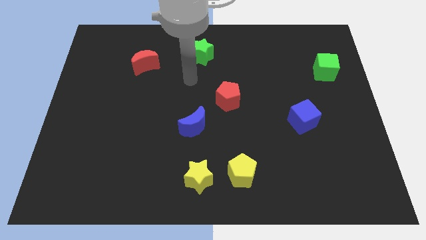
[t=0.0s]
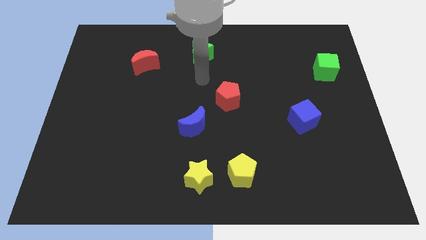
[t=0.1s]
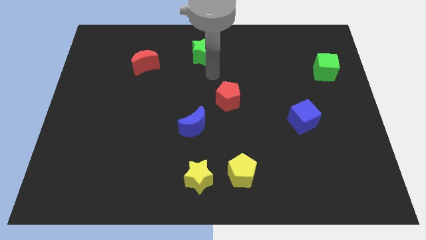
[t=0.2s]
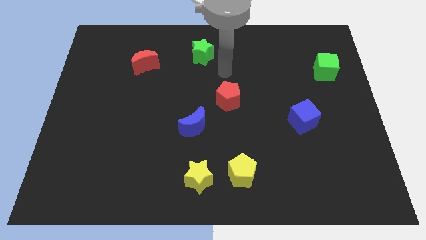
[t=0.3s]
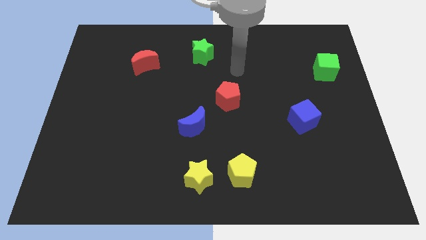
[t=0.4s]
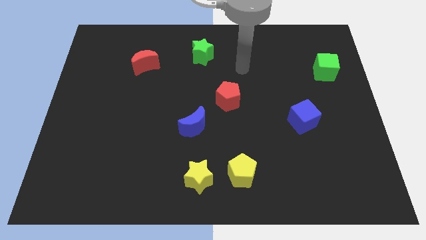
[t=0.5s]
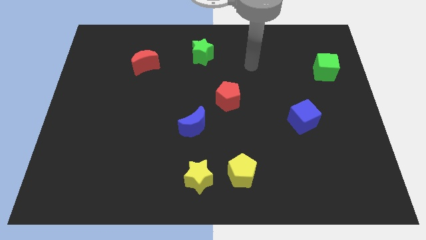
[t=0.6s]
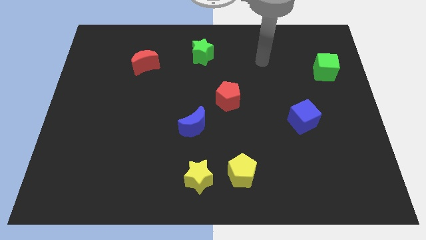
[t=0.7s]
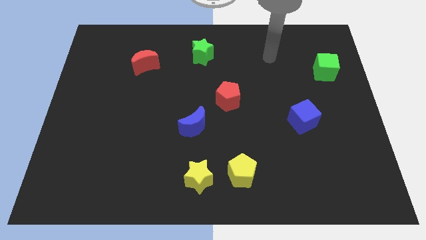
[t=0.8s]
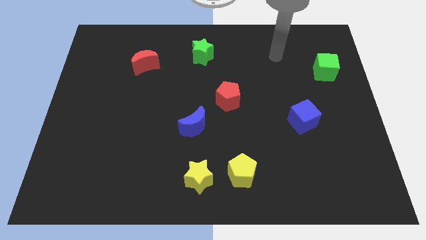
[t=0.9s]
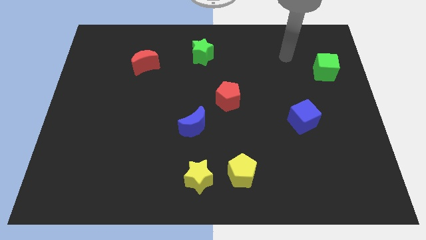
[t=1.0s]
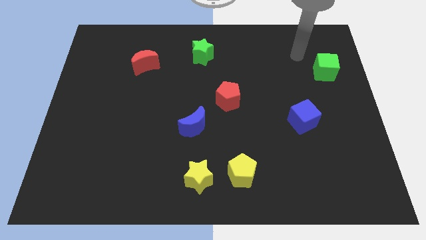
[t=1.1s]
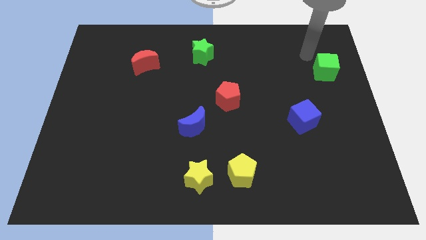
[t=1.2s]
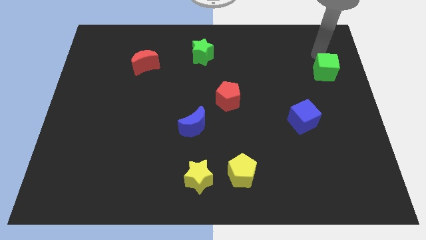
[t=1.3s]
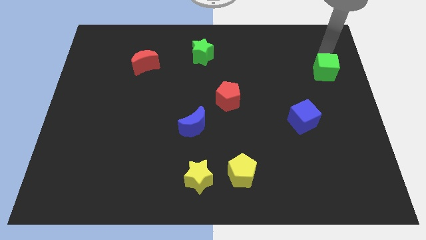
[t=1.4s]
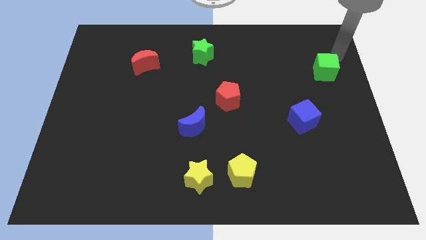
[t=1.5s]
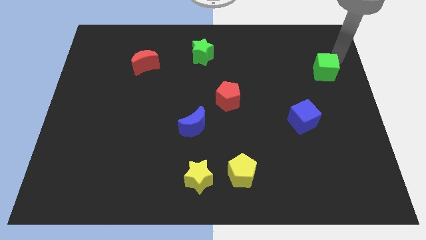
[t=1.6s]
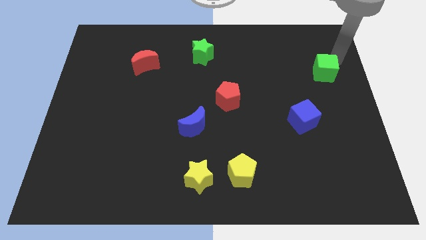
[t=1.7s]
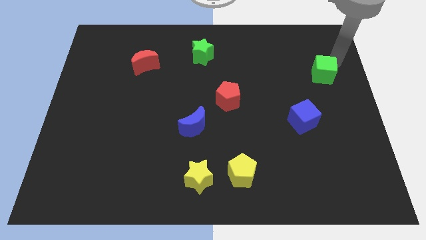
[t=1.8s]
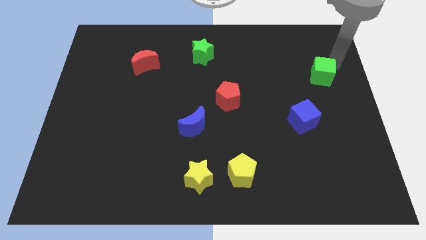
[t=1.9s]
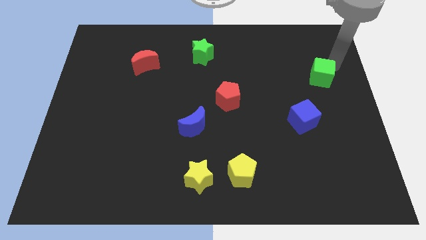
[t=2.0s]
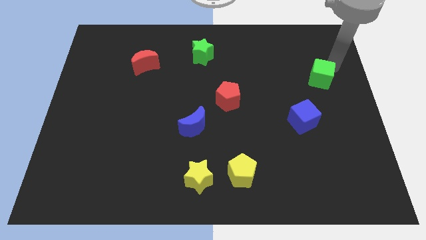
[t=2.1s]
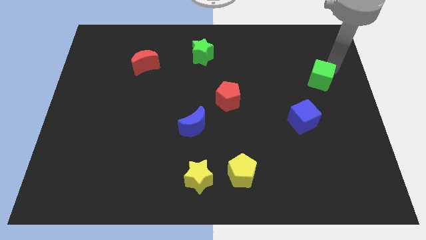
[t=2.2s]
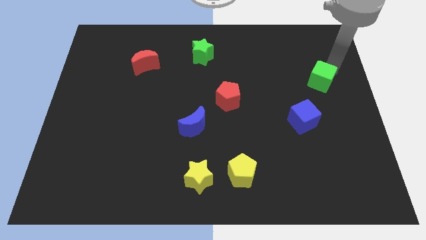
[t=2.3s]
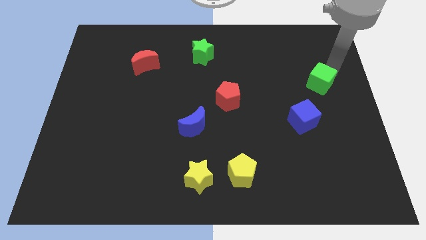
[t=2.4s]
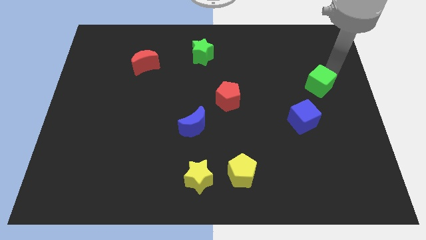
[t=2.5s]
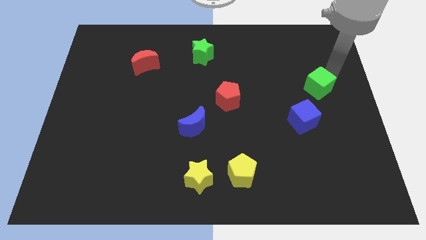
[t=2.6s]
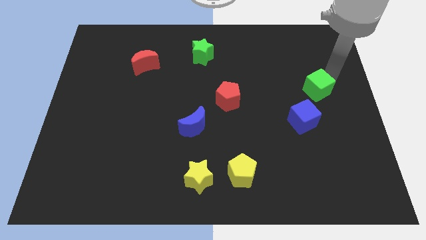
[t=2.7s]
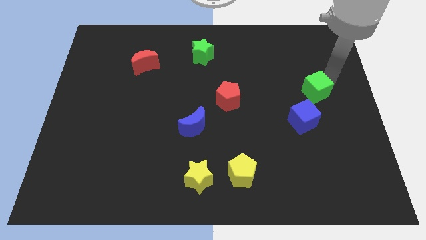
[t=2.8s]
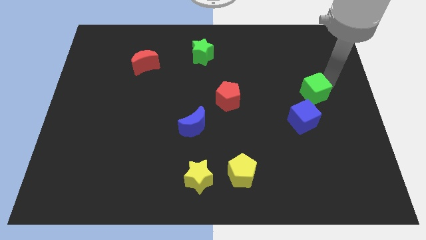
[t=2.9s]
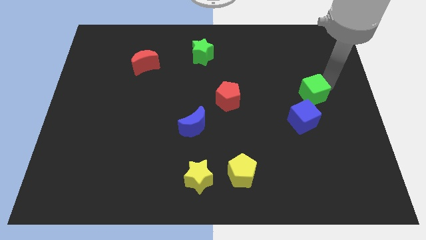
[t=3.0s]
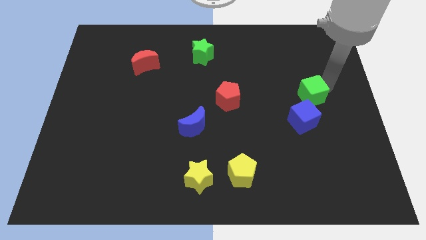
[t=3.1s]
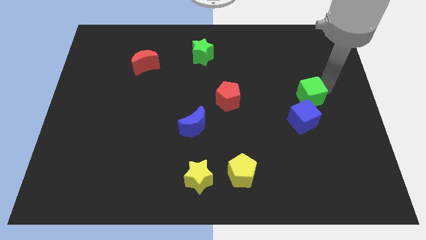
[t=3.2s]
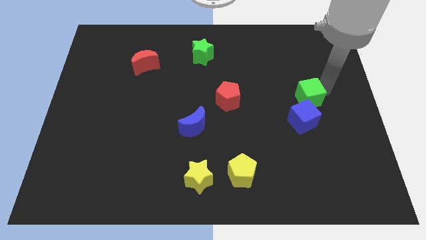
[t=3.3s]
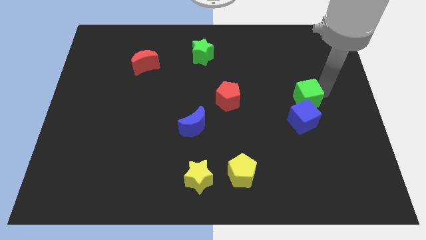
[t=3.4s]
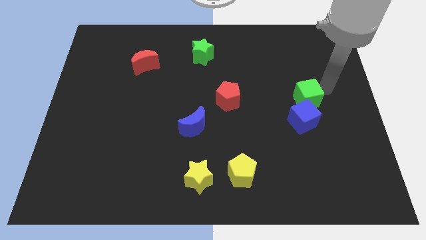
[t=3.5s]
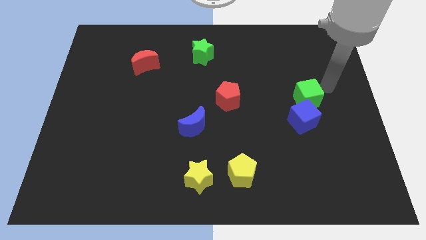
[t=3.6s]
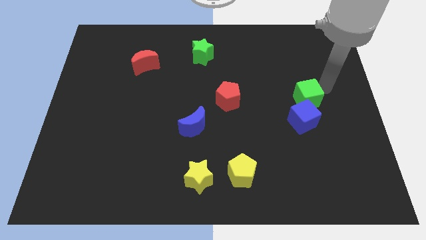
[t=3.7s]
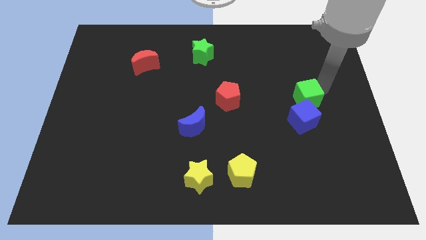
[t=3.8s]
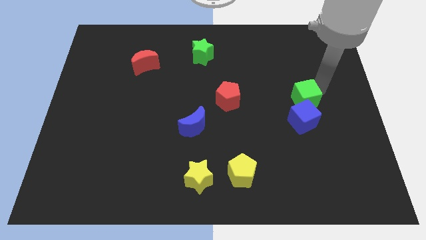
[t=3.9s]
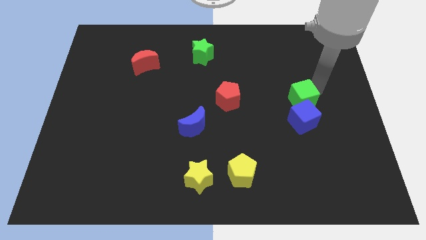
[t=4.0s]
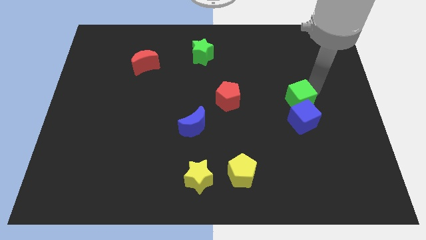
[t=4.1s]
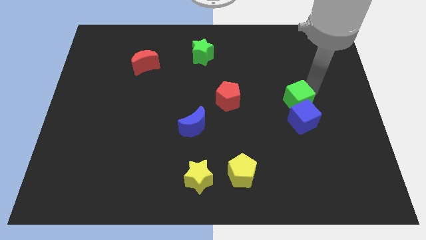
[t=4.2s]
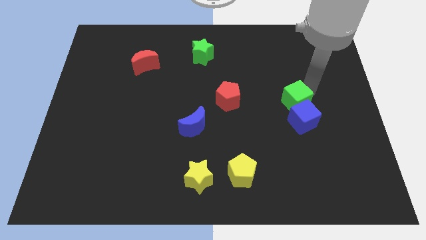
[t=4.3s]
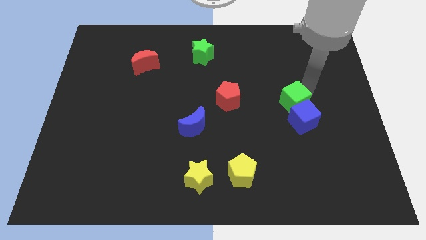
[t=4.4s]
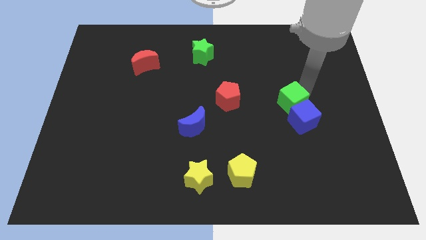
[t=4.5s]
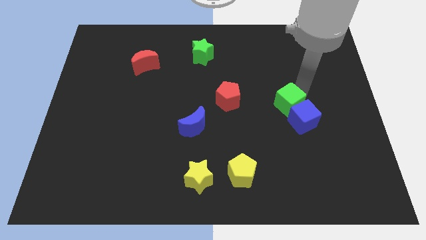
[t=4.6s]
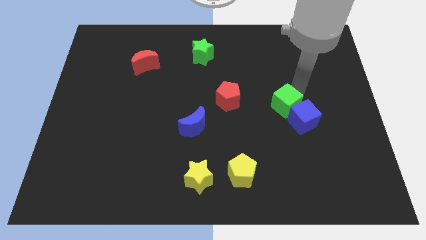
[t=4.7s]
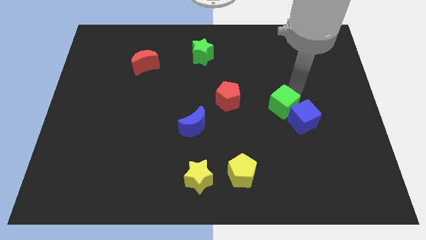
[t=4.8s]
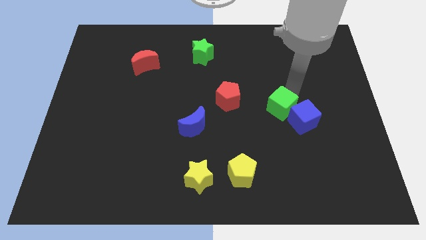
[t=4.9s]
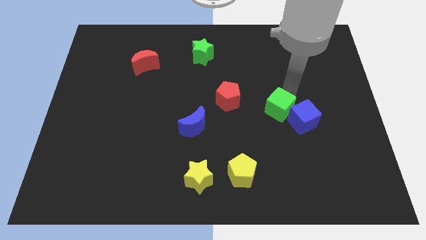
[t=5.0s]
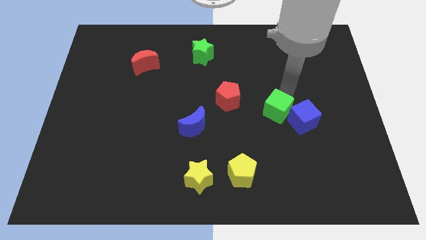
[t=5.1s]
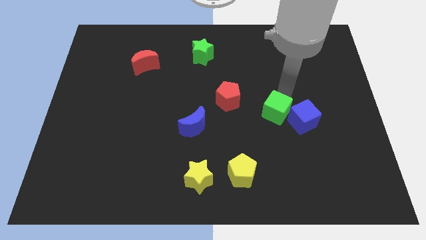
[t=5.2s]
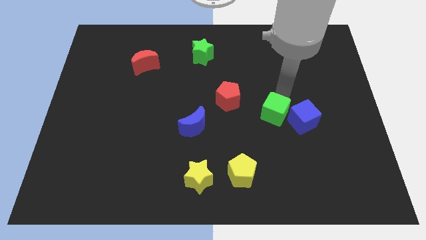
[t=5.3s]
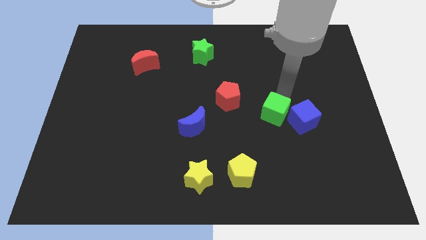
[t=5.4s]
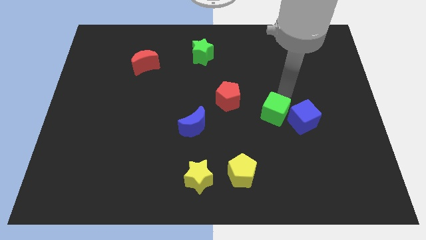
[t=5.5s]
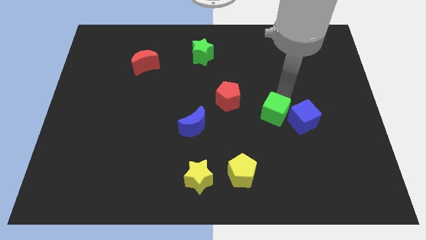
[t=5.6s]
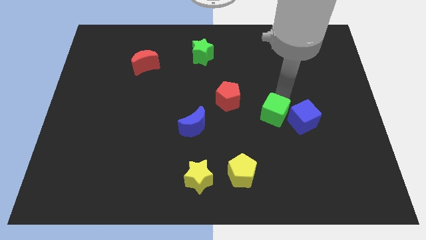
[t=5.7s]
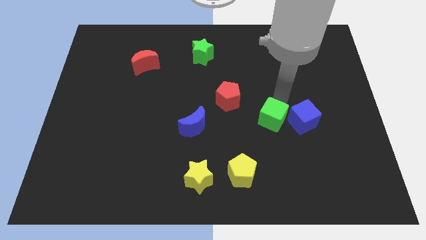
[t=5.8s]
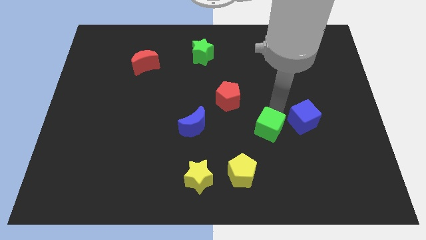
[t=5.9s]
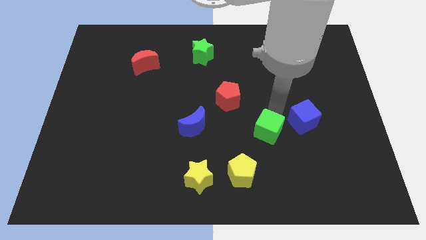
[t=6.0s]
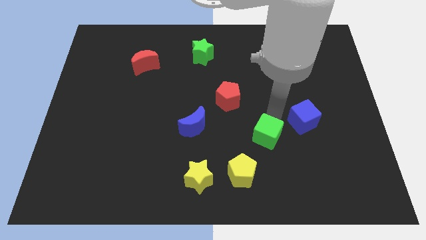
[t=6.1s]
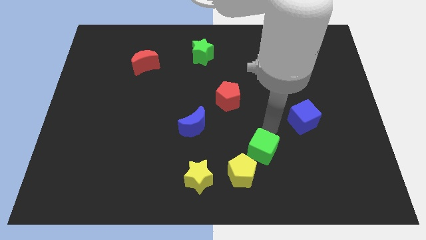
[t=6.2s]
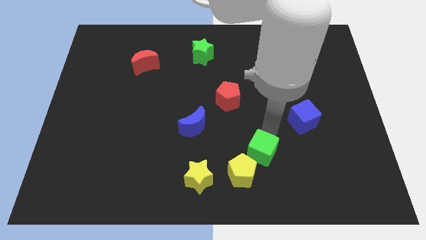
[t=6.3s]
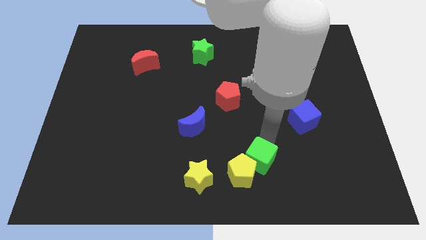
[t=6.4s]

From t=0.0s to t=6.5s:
put the green cube next to the yellow pentagon

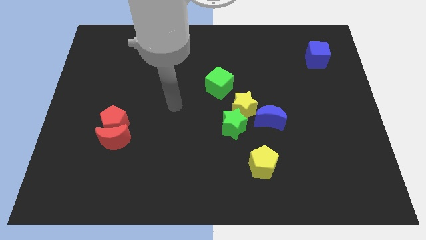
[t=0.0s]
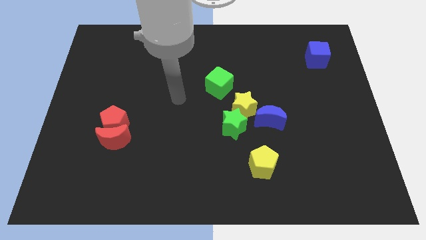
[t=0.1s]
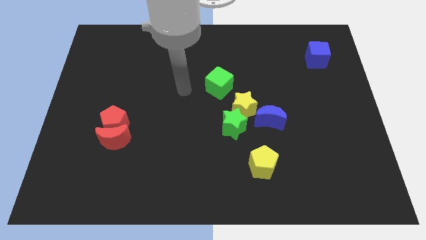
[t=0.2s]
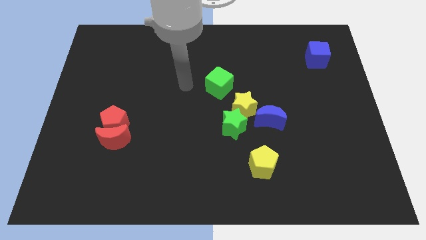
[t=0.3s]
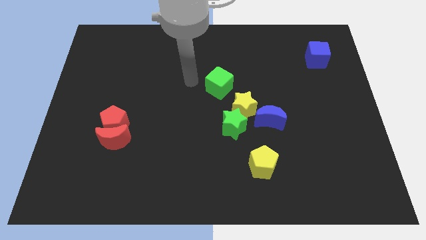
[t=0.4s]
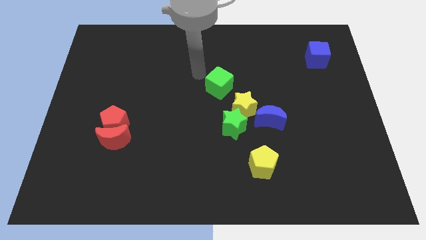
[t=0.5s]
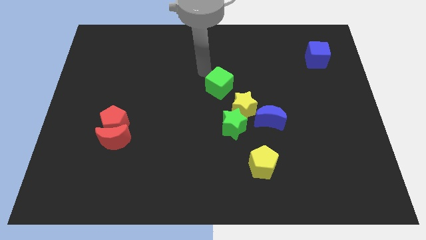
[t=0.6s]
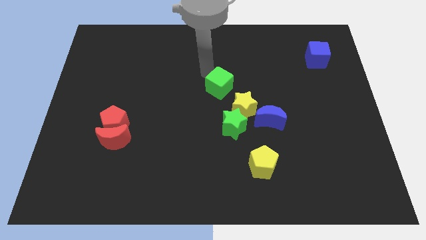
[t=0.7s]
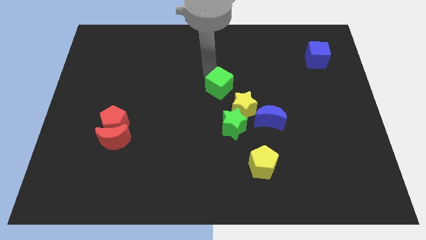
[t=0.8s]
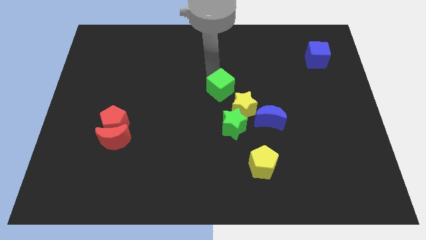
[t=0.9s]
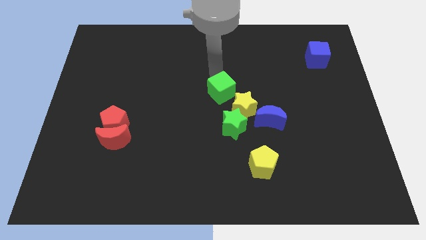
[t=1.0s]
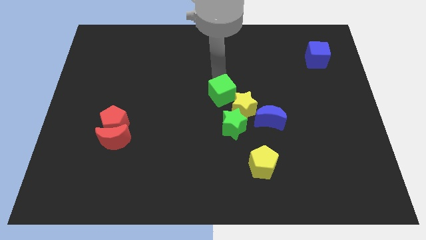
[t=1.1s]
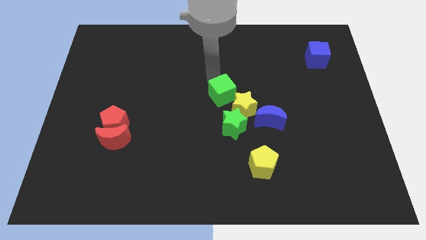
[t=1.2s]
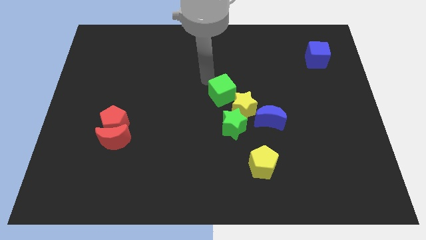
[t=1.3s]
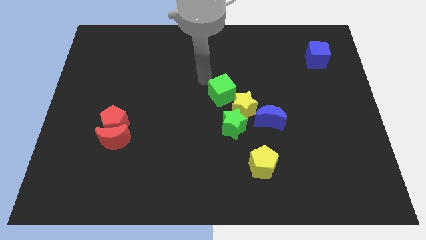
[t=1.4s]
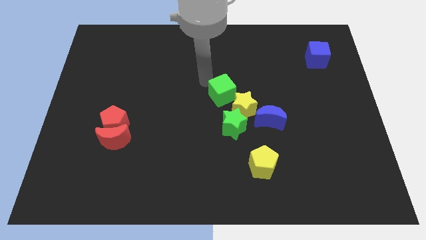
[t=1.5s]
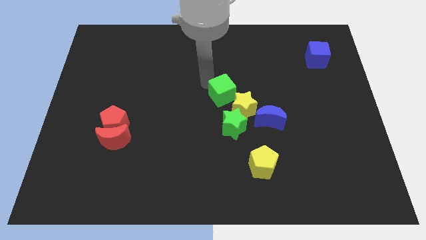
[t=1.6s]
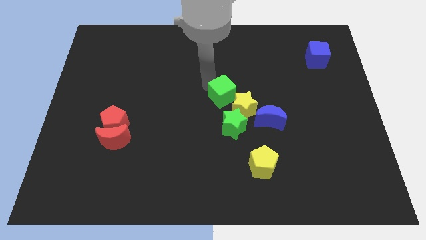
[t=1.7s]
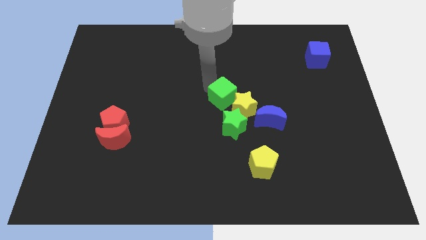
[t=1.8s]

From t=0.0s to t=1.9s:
move the green cube towards the yellow star
